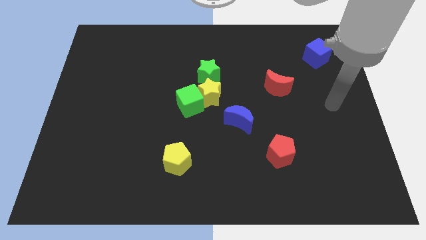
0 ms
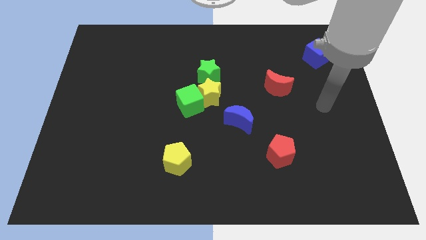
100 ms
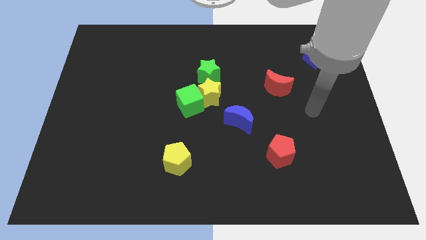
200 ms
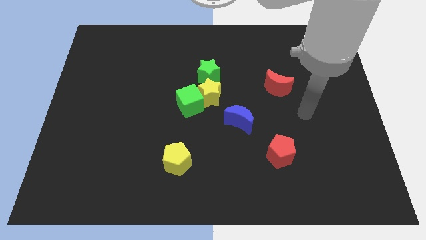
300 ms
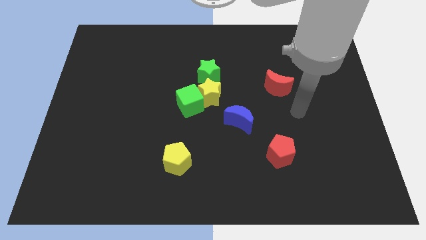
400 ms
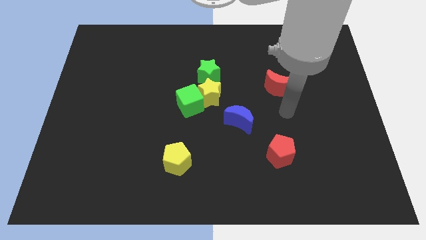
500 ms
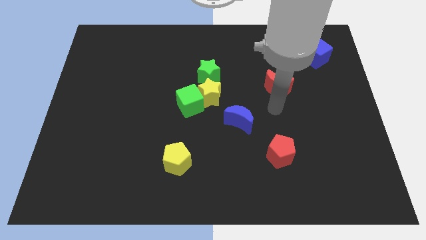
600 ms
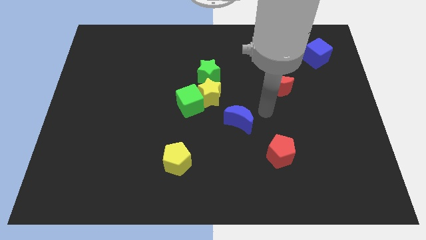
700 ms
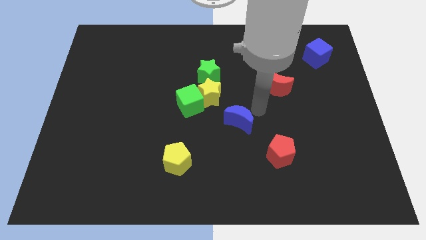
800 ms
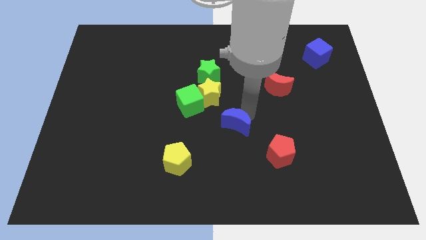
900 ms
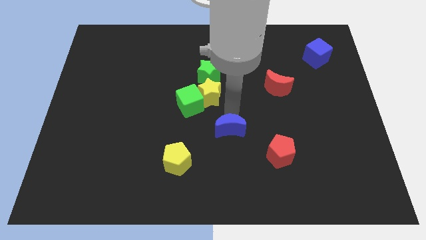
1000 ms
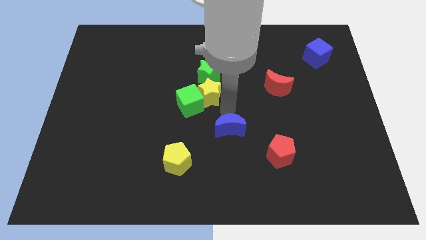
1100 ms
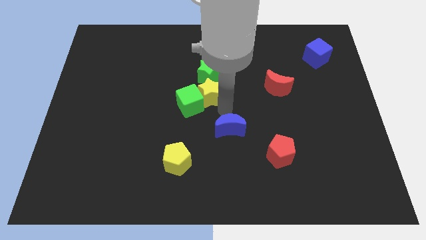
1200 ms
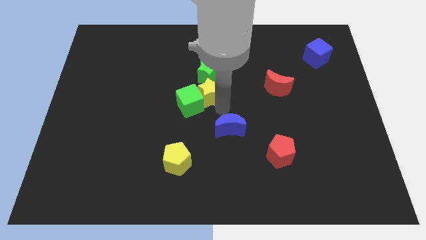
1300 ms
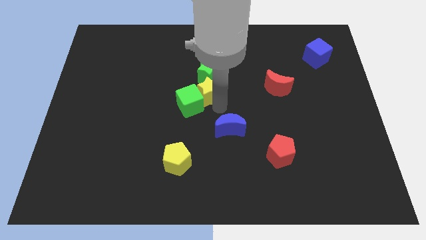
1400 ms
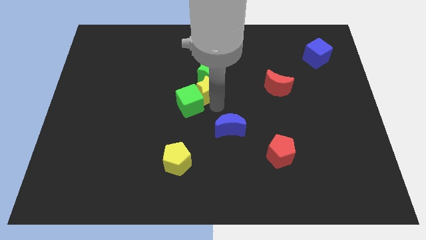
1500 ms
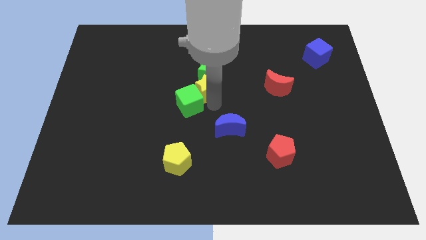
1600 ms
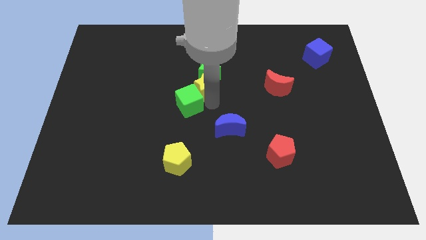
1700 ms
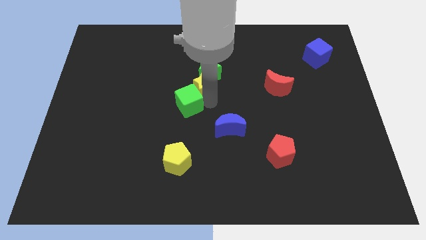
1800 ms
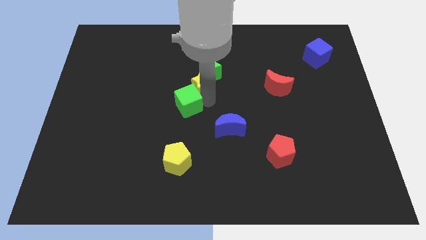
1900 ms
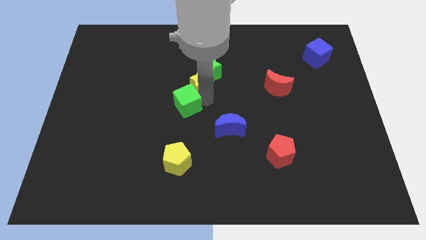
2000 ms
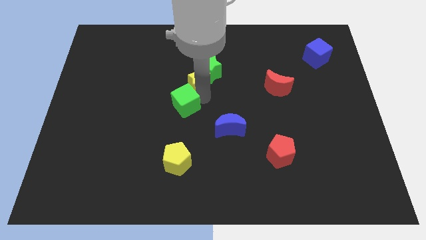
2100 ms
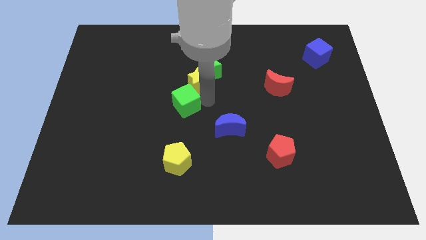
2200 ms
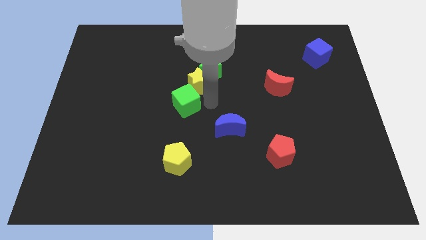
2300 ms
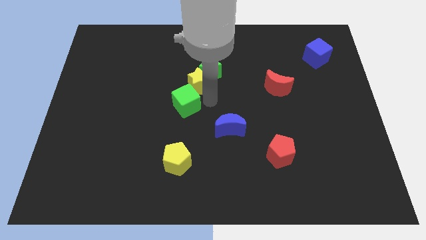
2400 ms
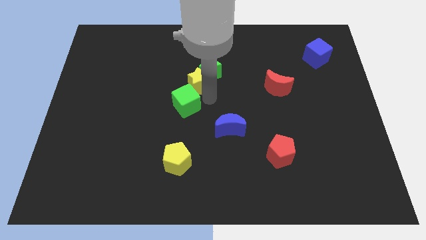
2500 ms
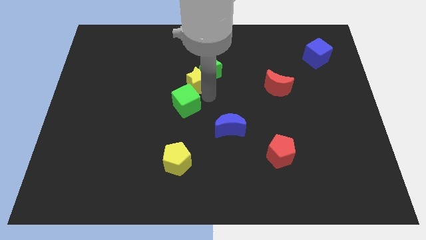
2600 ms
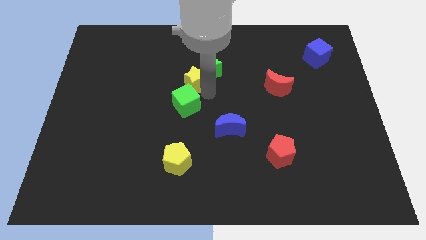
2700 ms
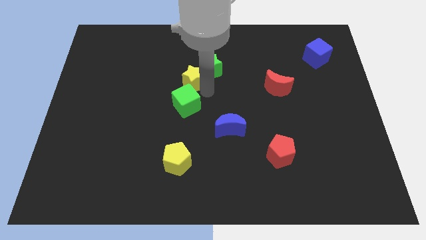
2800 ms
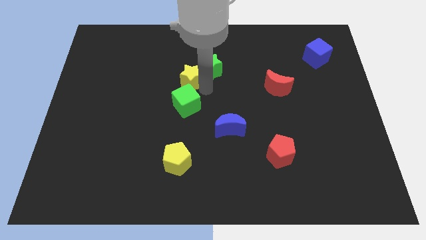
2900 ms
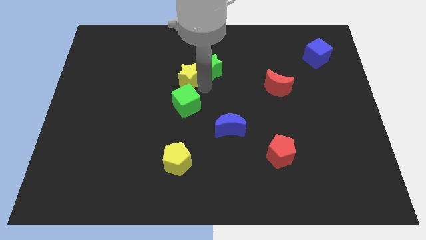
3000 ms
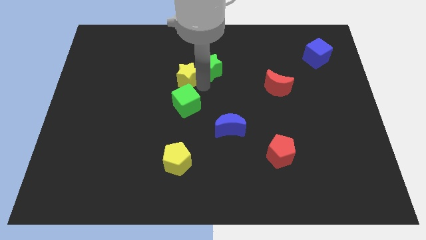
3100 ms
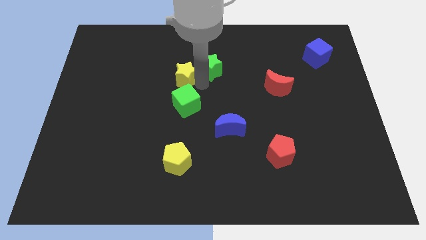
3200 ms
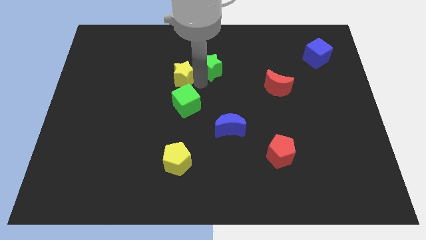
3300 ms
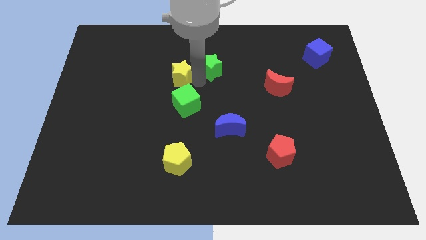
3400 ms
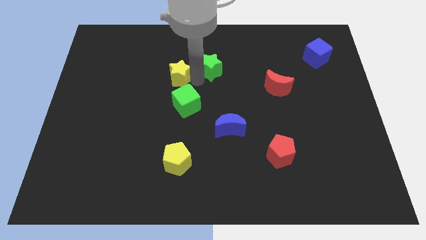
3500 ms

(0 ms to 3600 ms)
separate the yellow star from the green cube, green star, and blue moon

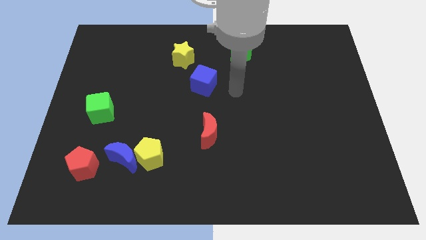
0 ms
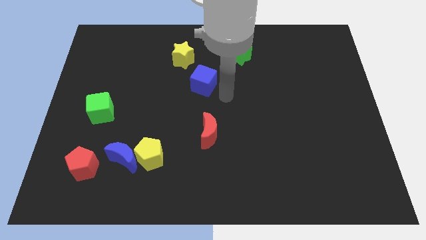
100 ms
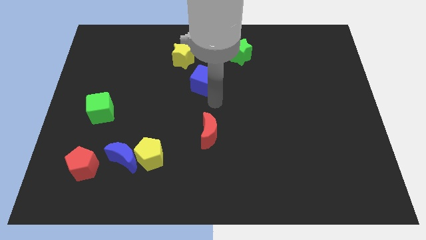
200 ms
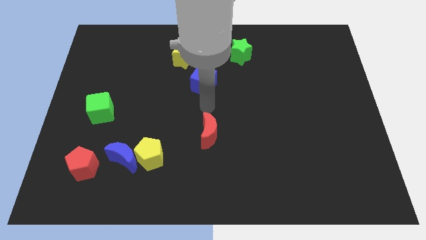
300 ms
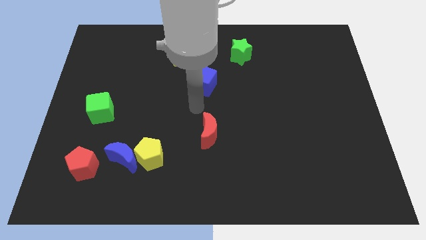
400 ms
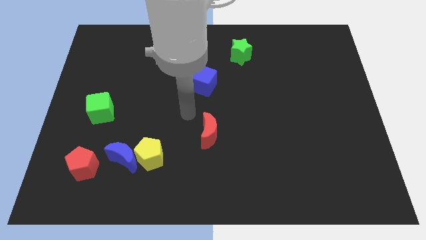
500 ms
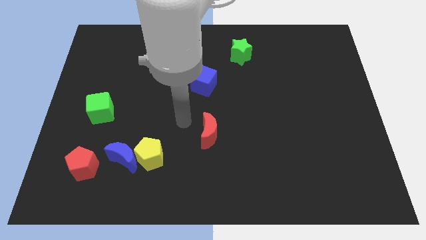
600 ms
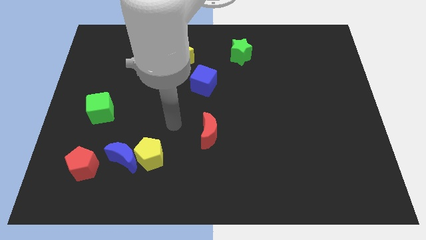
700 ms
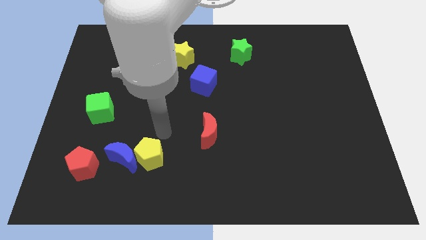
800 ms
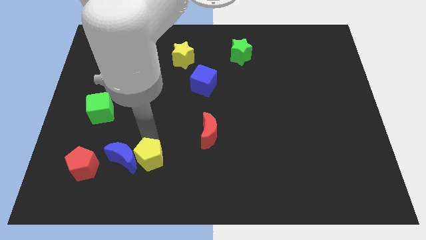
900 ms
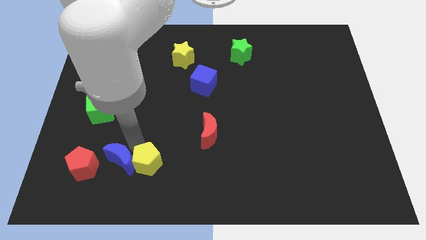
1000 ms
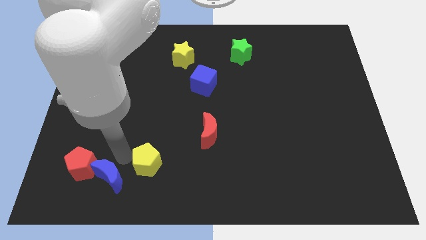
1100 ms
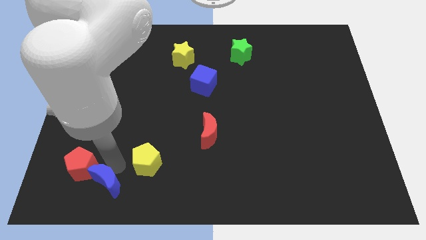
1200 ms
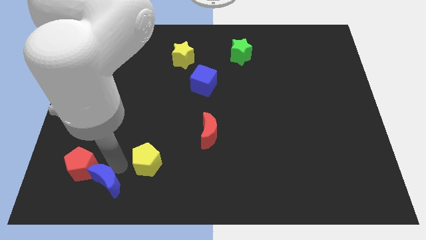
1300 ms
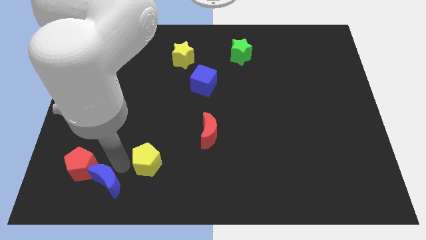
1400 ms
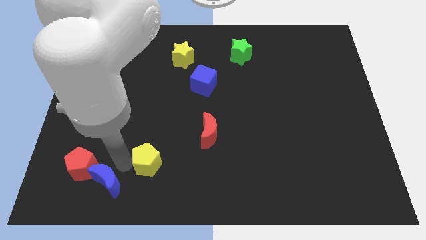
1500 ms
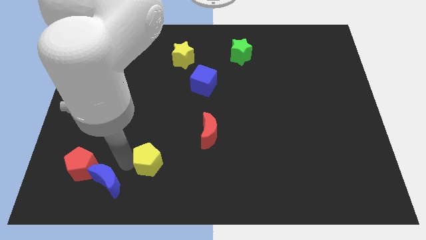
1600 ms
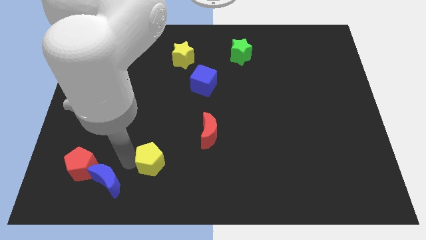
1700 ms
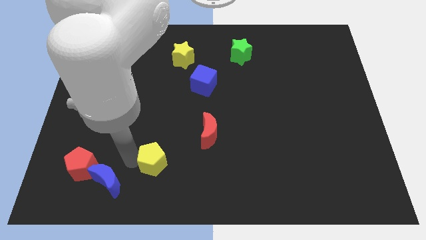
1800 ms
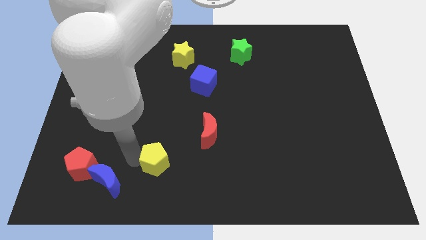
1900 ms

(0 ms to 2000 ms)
move the yellow pentagon away from the blue moon

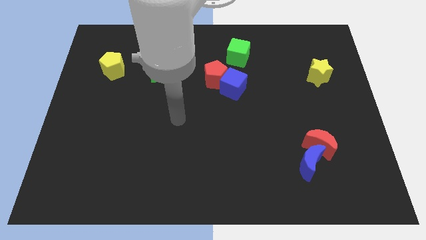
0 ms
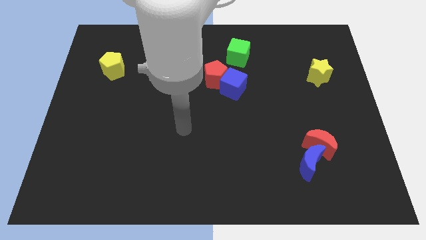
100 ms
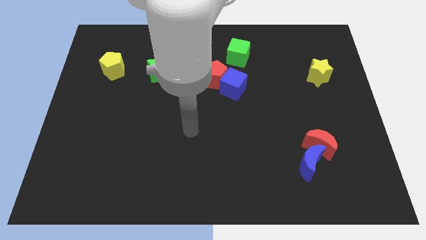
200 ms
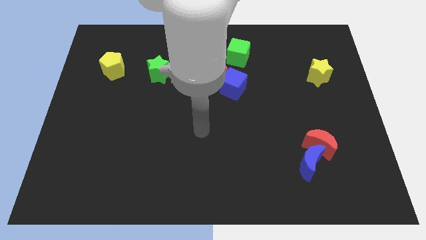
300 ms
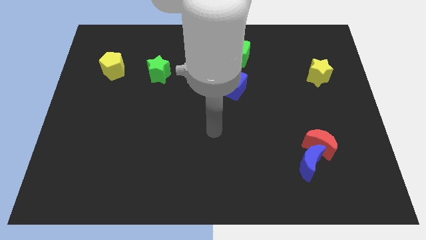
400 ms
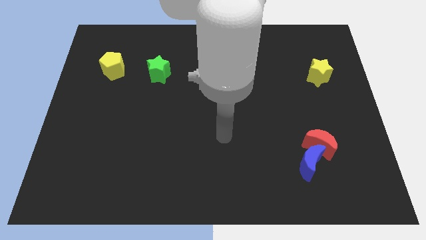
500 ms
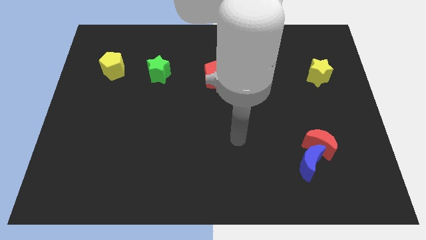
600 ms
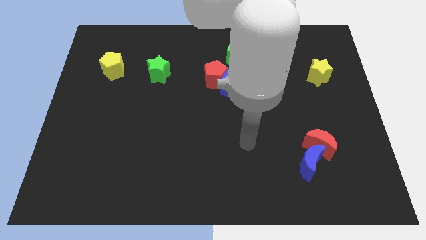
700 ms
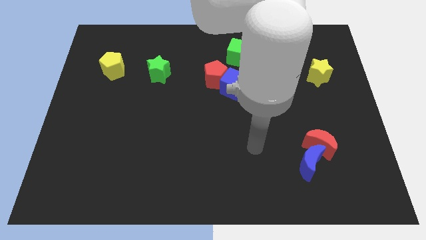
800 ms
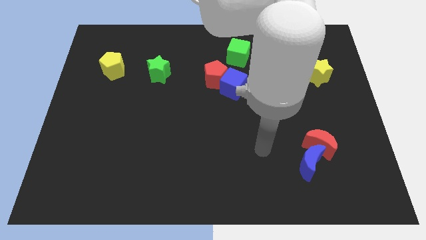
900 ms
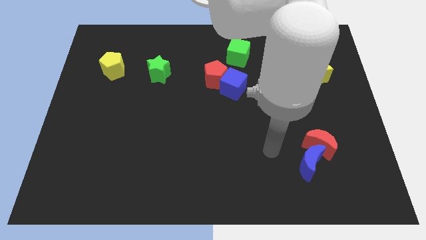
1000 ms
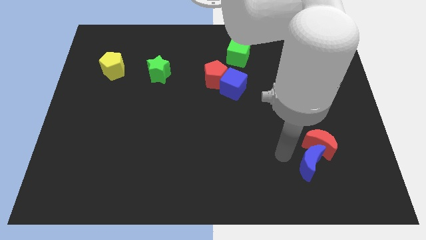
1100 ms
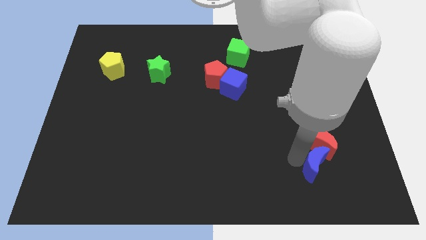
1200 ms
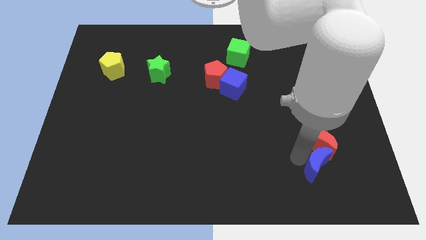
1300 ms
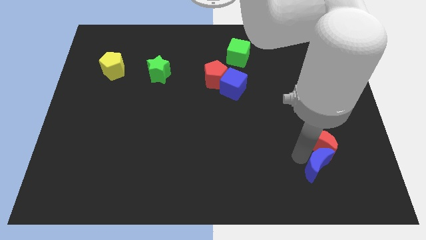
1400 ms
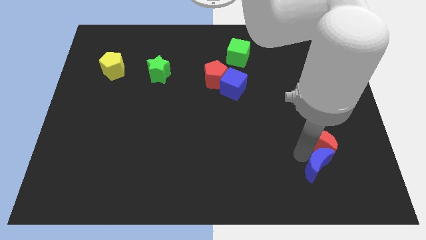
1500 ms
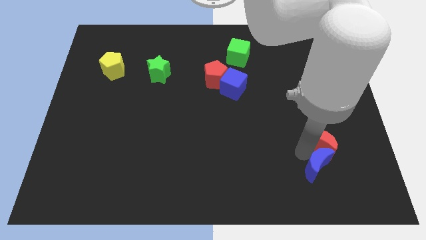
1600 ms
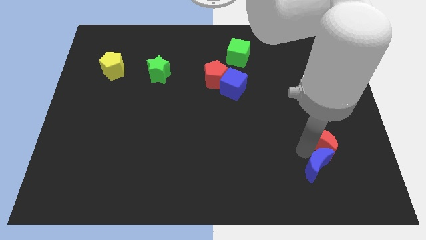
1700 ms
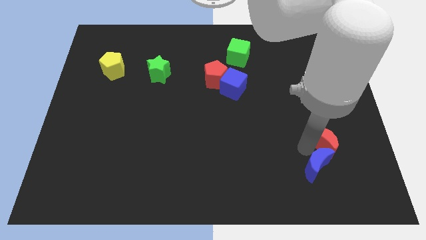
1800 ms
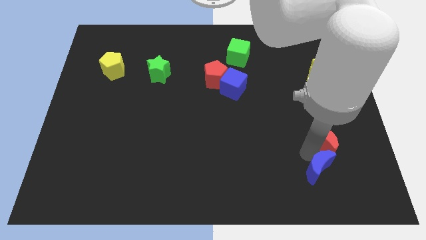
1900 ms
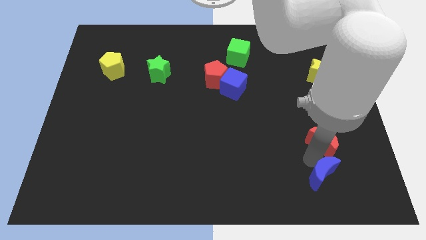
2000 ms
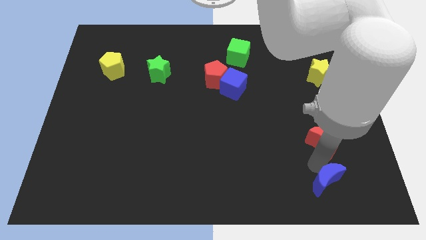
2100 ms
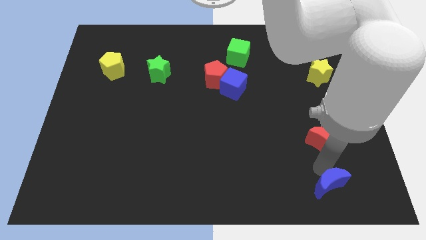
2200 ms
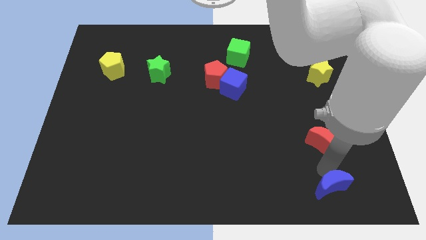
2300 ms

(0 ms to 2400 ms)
separate the red moon from the blue moon

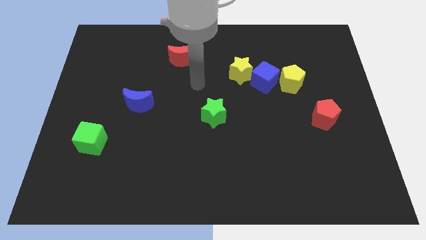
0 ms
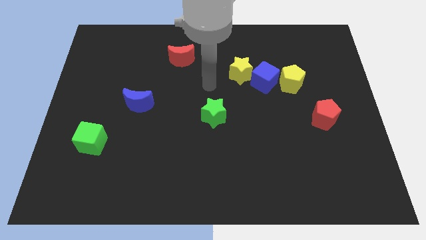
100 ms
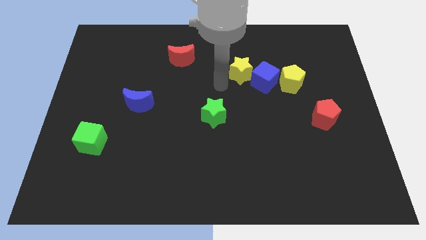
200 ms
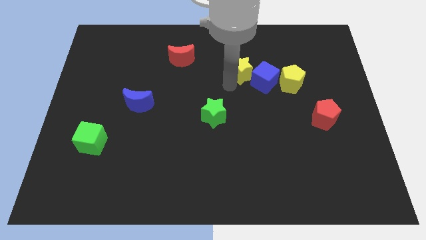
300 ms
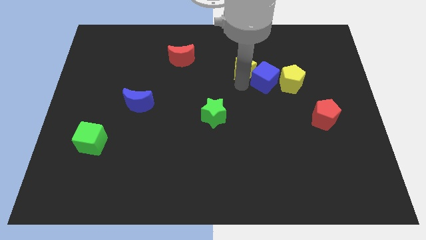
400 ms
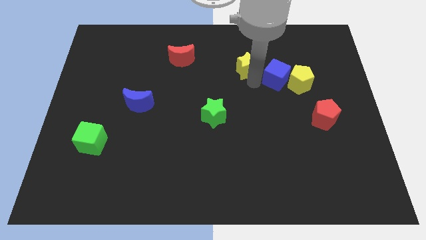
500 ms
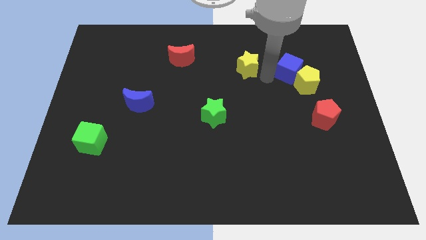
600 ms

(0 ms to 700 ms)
pull the yellow star apart from the blue cube

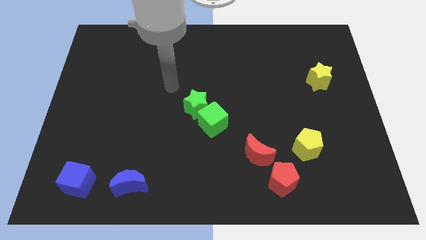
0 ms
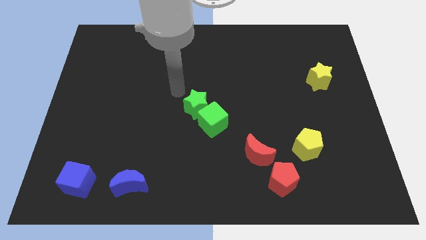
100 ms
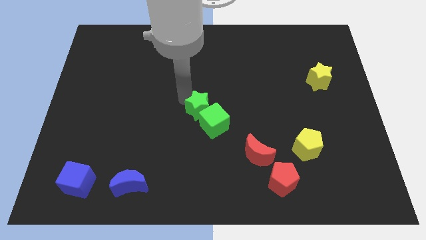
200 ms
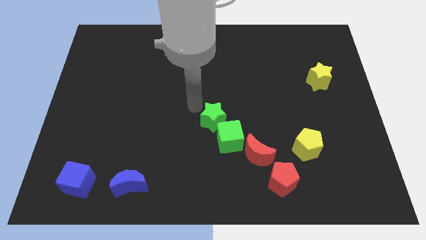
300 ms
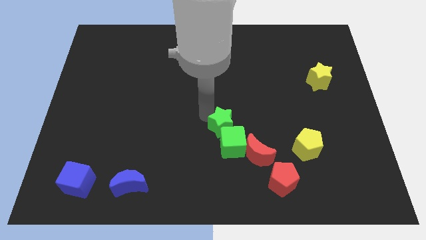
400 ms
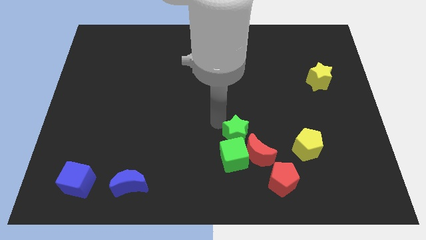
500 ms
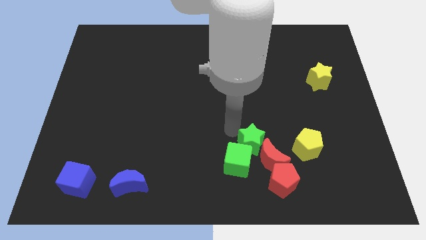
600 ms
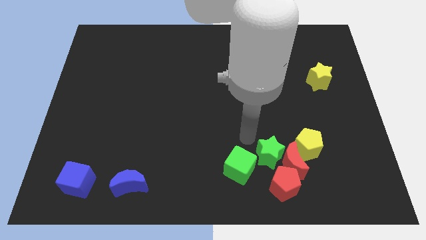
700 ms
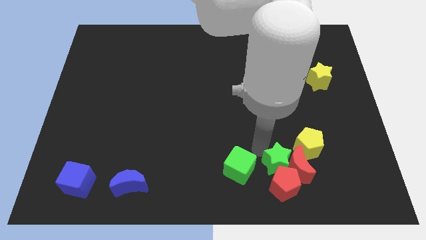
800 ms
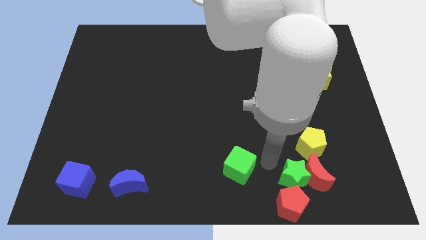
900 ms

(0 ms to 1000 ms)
separate the green cube from the green star
